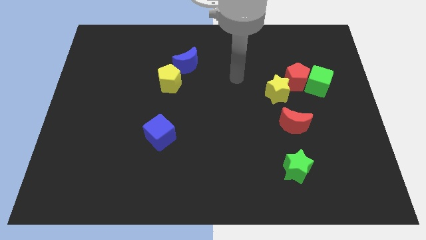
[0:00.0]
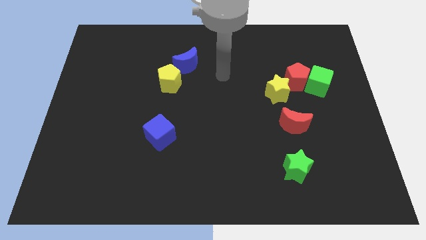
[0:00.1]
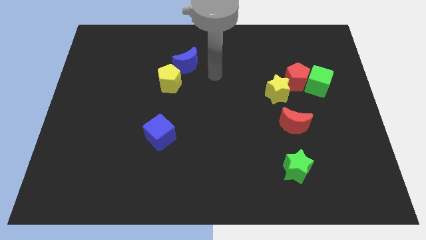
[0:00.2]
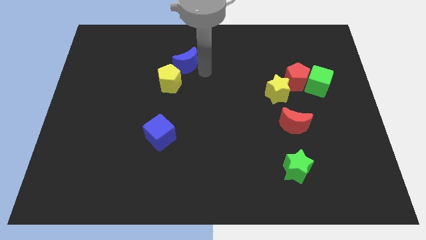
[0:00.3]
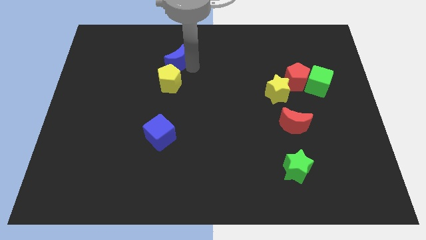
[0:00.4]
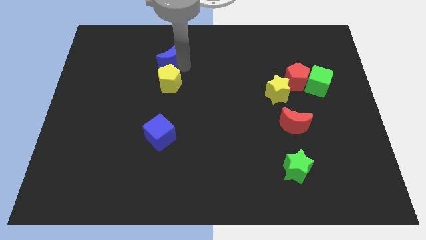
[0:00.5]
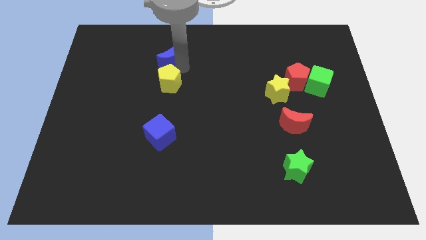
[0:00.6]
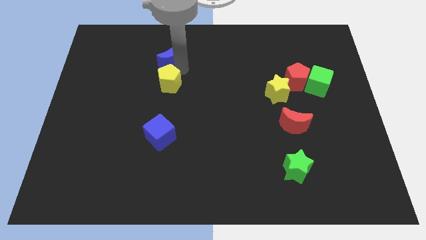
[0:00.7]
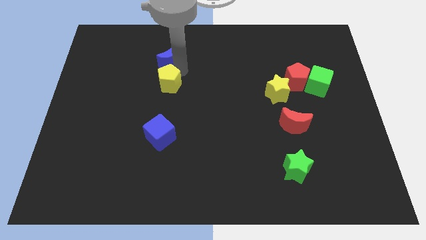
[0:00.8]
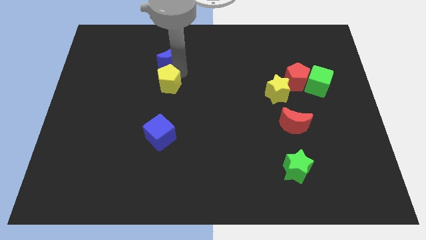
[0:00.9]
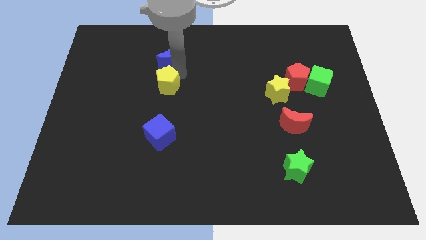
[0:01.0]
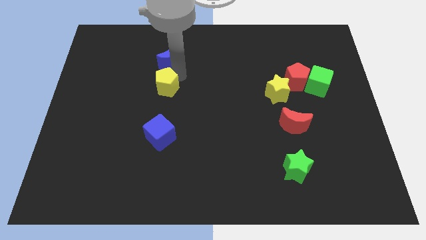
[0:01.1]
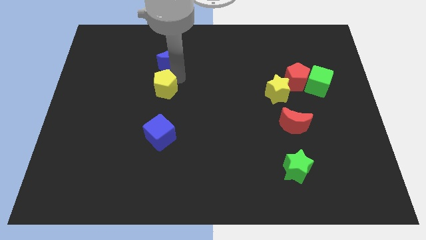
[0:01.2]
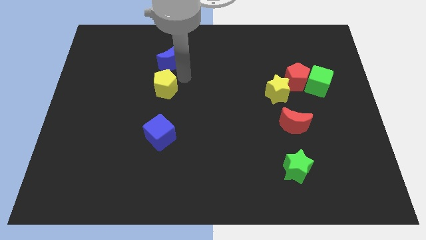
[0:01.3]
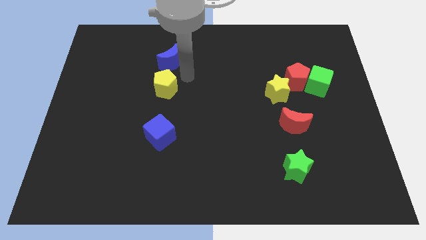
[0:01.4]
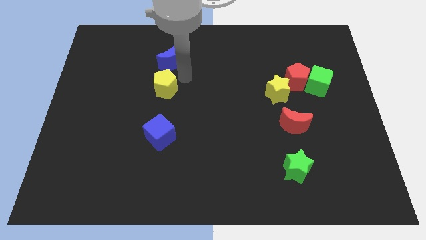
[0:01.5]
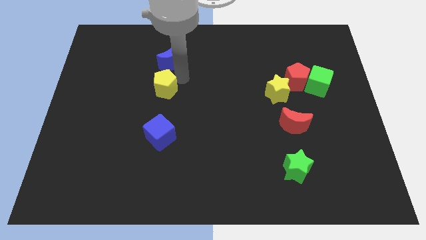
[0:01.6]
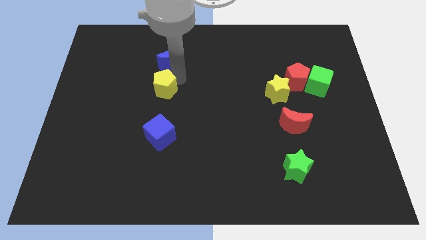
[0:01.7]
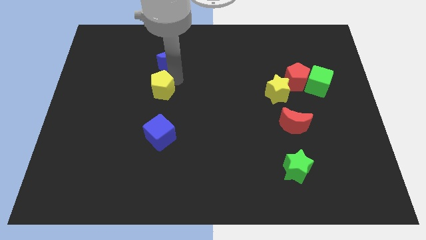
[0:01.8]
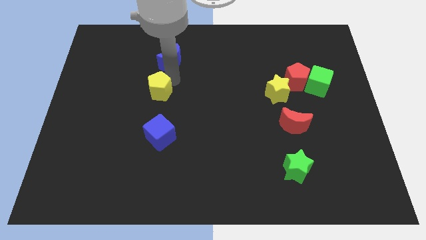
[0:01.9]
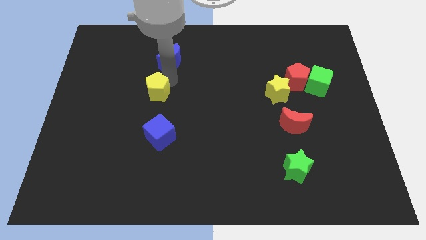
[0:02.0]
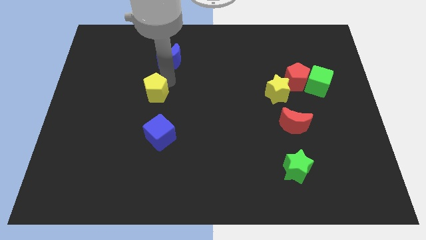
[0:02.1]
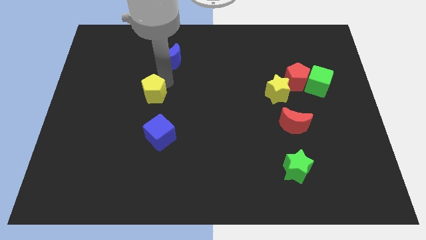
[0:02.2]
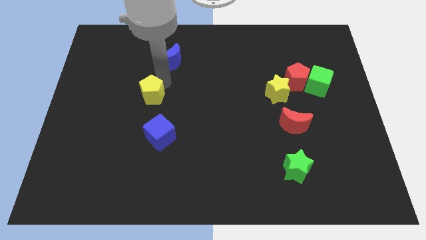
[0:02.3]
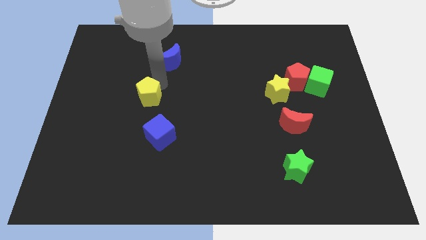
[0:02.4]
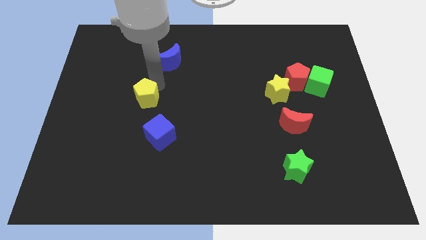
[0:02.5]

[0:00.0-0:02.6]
move the yellow pentagon a little down and then to the left

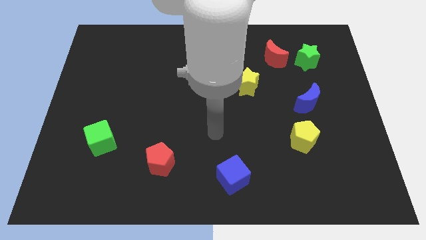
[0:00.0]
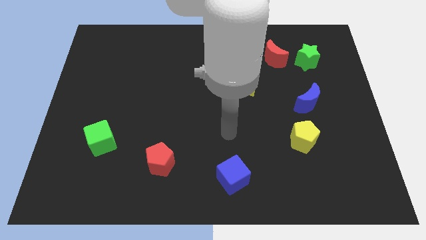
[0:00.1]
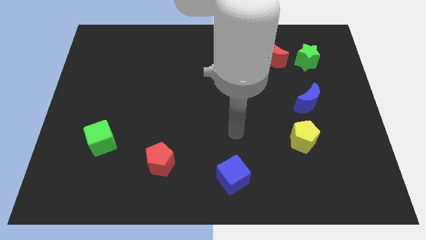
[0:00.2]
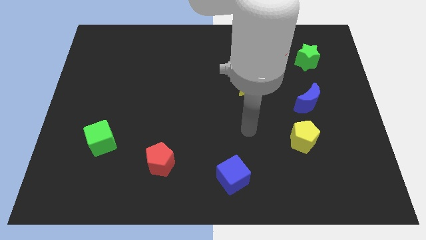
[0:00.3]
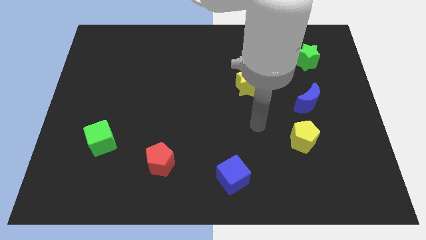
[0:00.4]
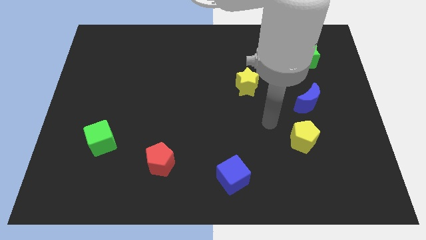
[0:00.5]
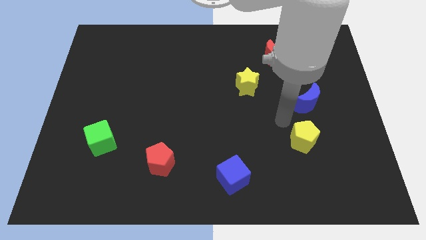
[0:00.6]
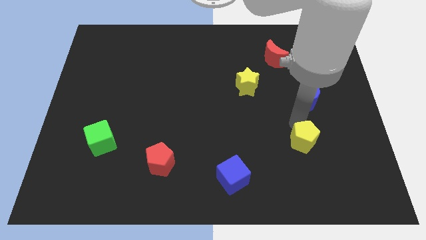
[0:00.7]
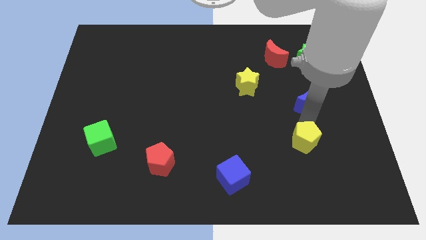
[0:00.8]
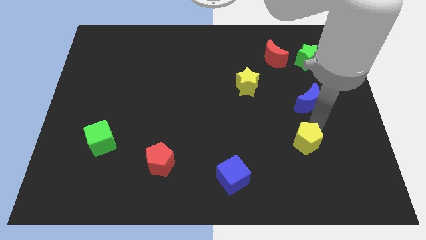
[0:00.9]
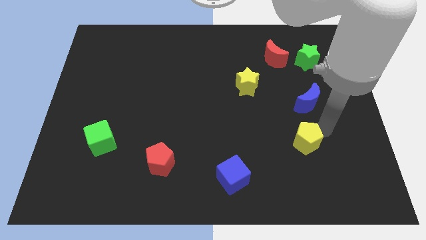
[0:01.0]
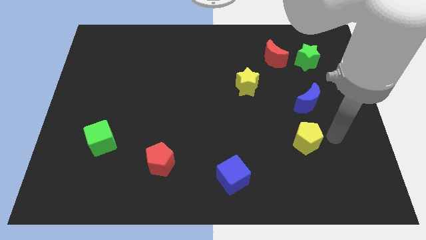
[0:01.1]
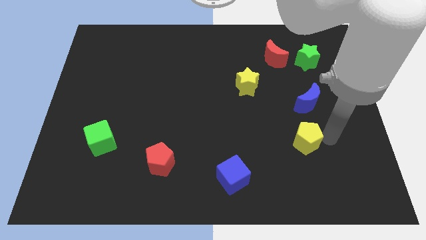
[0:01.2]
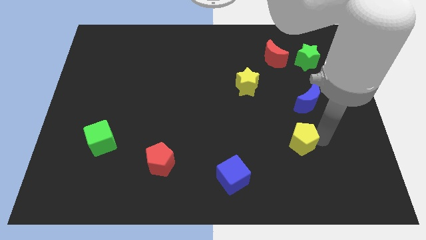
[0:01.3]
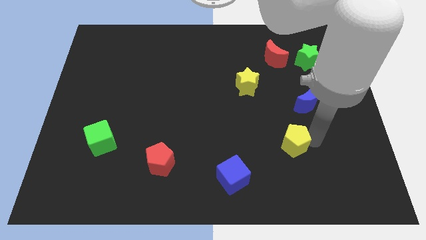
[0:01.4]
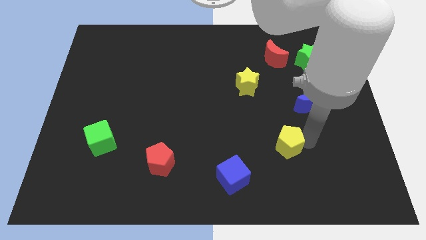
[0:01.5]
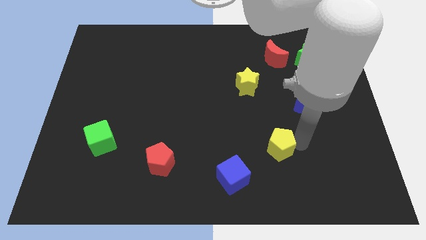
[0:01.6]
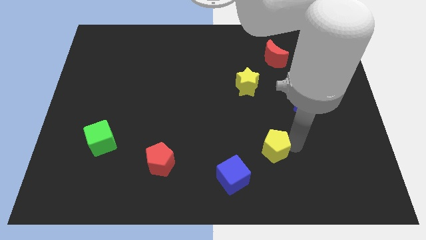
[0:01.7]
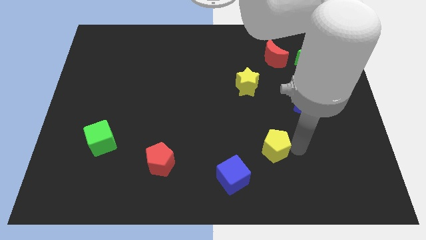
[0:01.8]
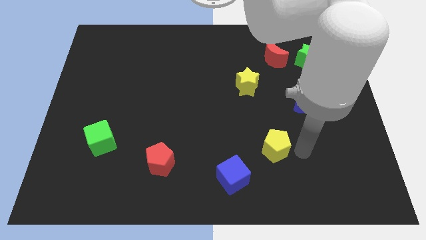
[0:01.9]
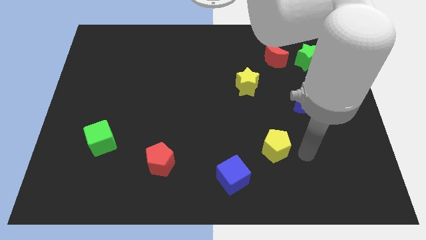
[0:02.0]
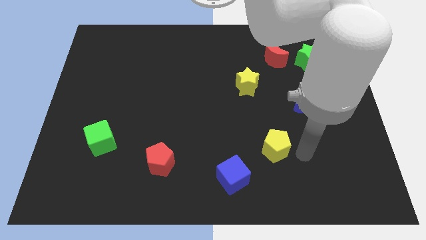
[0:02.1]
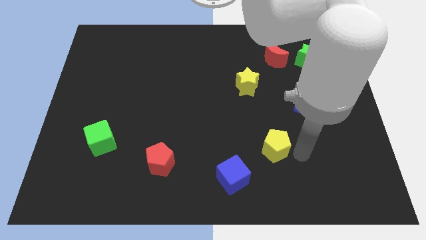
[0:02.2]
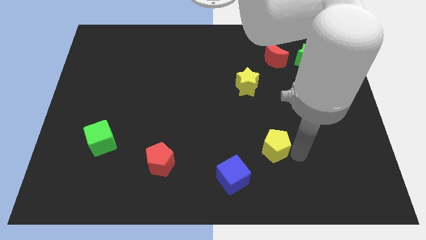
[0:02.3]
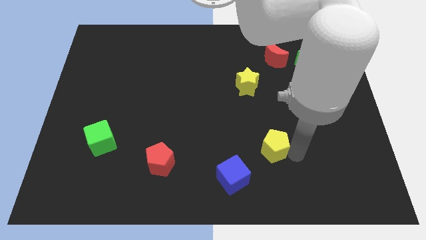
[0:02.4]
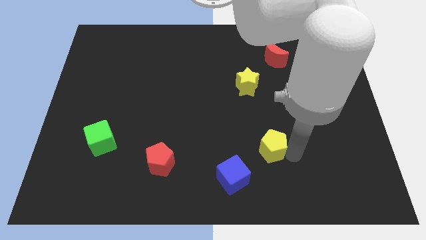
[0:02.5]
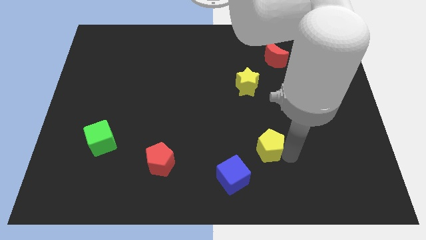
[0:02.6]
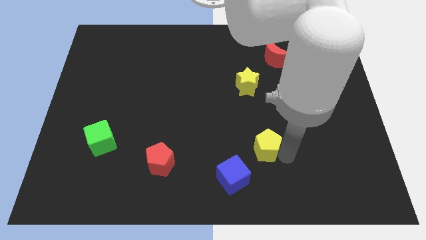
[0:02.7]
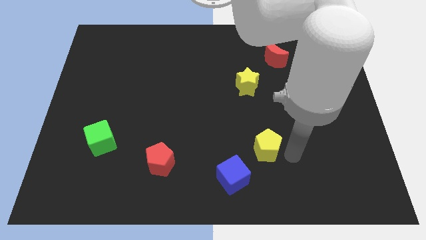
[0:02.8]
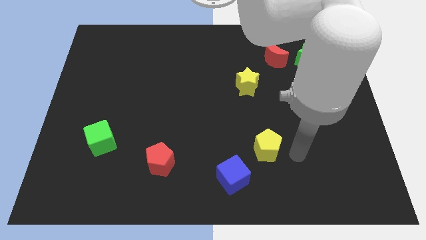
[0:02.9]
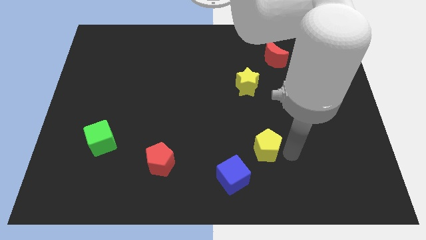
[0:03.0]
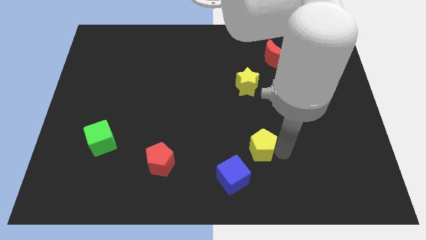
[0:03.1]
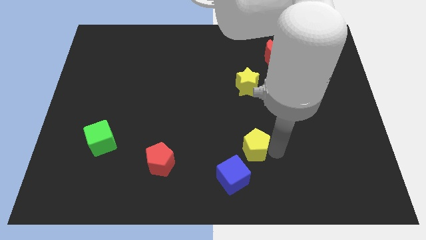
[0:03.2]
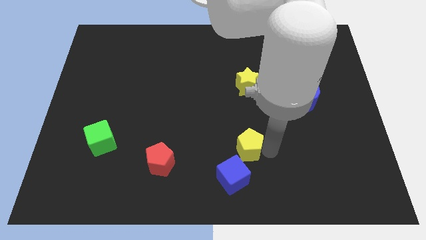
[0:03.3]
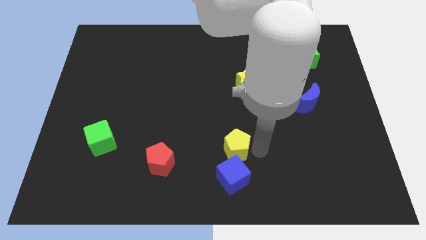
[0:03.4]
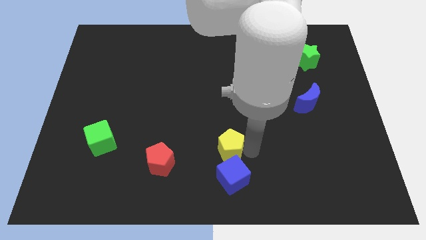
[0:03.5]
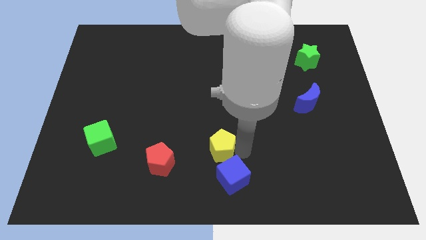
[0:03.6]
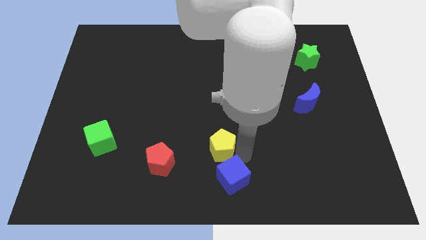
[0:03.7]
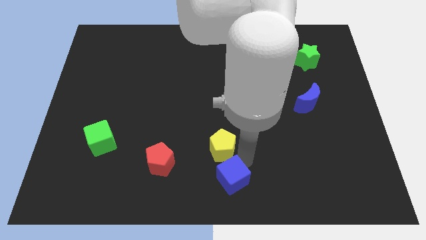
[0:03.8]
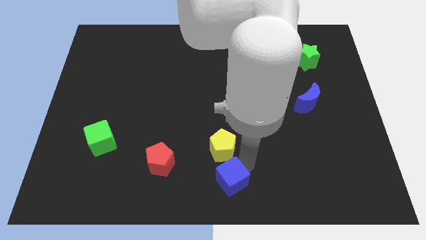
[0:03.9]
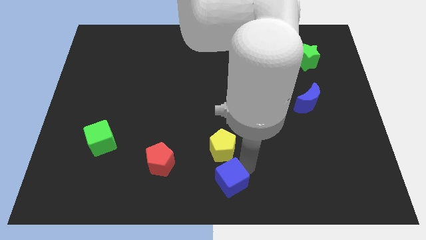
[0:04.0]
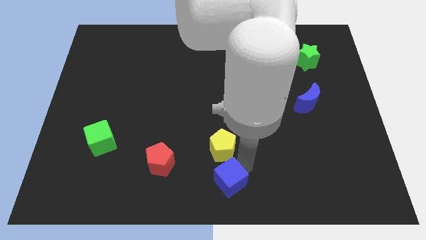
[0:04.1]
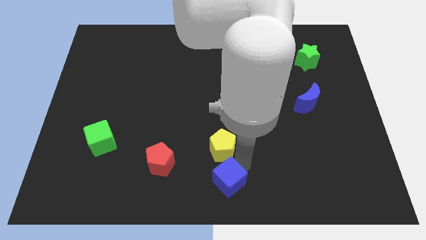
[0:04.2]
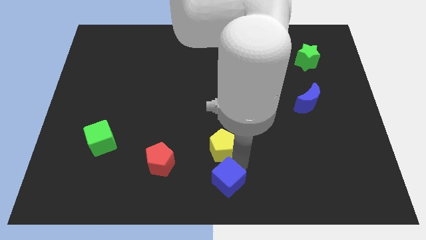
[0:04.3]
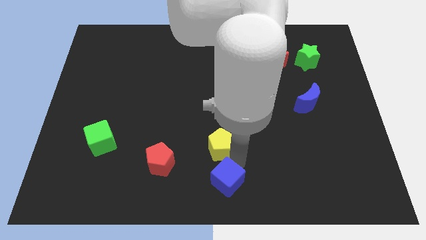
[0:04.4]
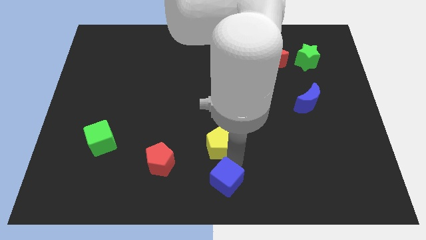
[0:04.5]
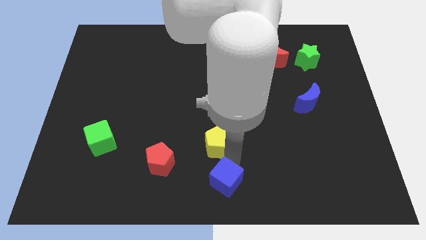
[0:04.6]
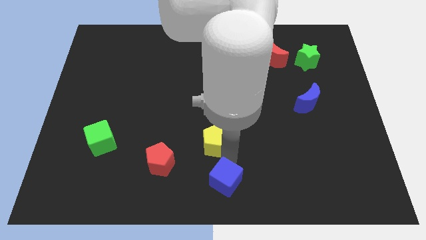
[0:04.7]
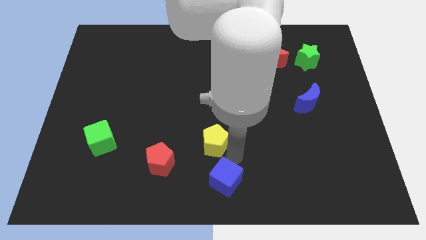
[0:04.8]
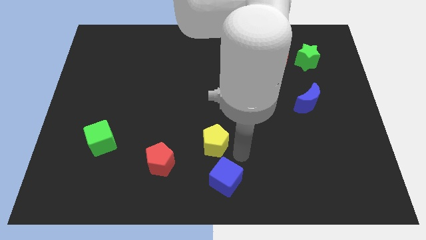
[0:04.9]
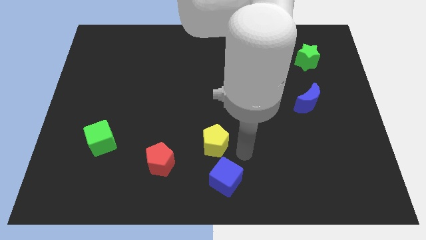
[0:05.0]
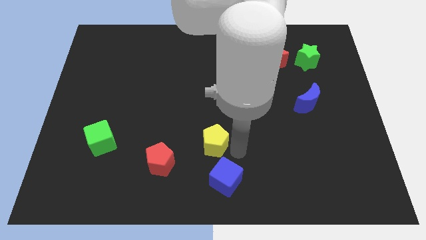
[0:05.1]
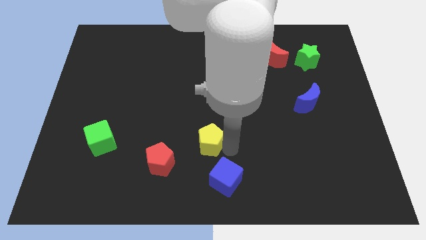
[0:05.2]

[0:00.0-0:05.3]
move the yellow pentagon to the left

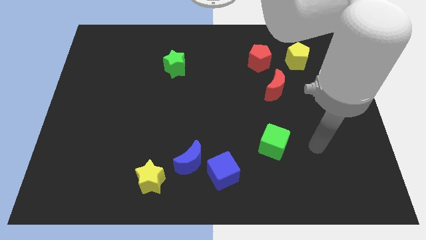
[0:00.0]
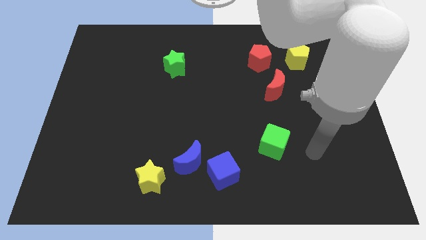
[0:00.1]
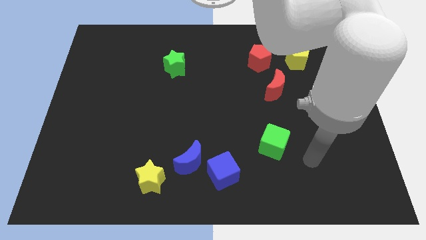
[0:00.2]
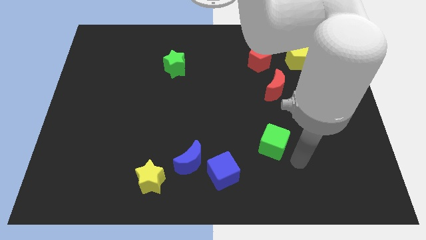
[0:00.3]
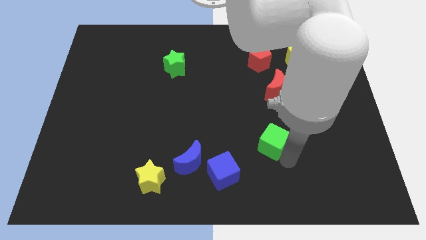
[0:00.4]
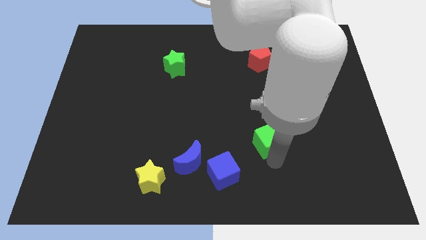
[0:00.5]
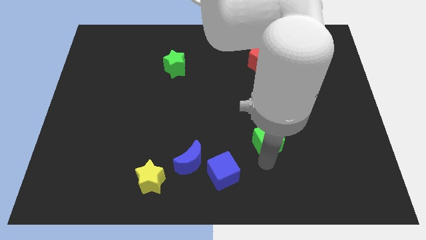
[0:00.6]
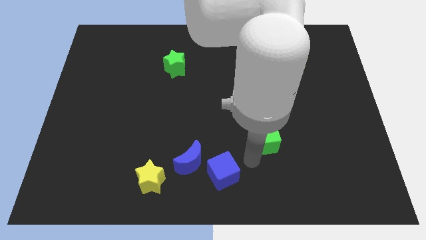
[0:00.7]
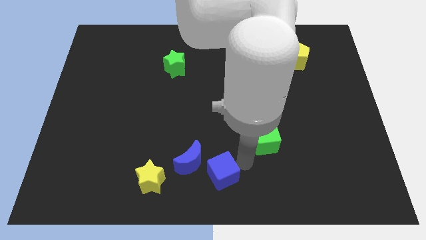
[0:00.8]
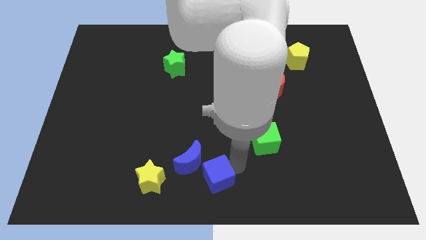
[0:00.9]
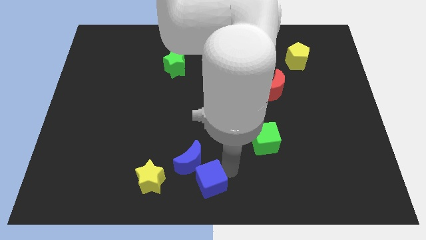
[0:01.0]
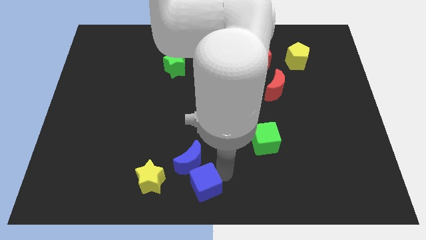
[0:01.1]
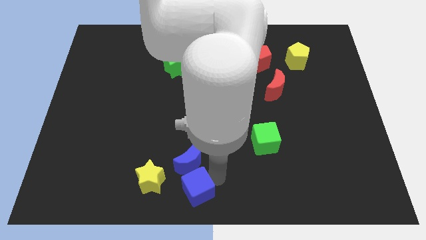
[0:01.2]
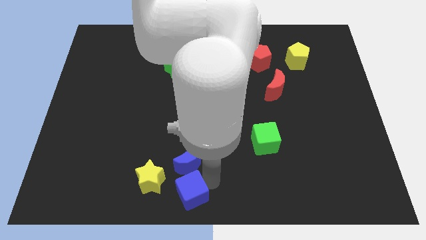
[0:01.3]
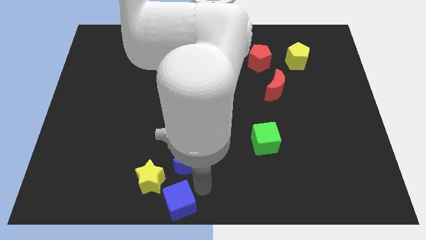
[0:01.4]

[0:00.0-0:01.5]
slide the blue cube left a little bit
